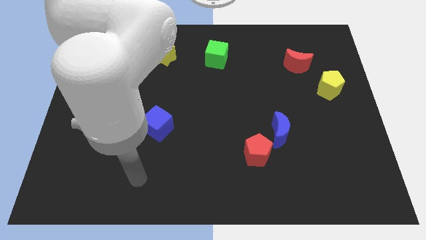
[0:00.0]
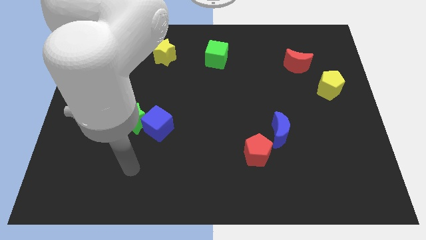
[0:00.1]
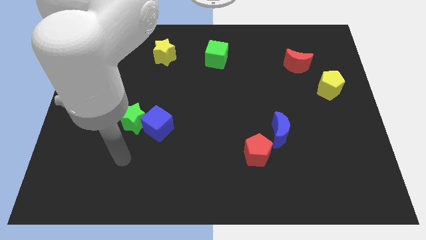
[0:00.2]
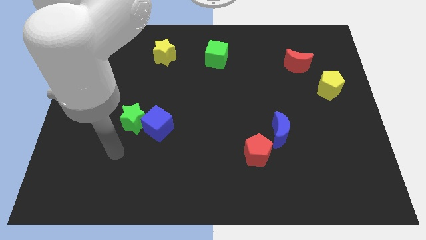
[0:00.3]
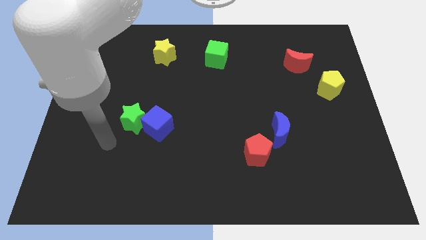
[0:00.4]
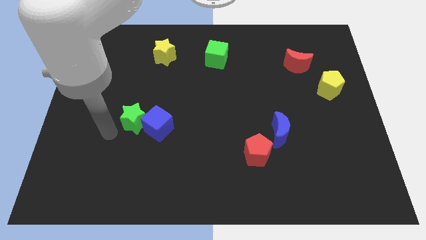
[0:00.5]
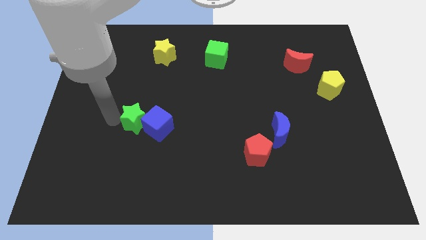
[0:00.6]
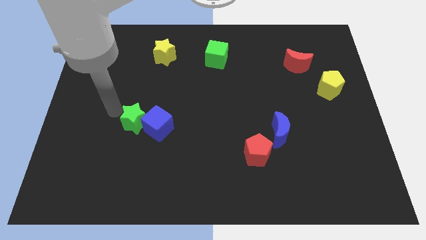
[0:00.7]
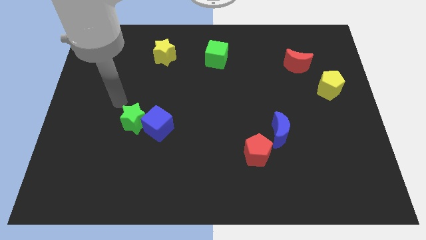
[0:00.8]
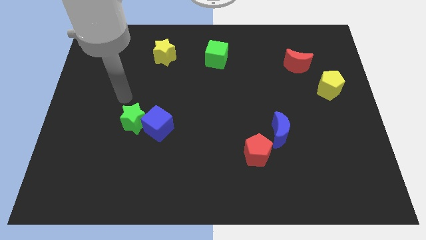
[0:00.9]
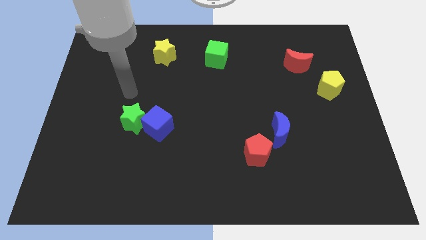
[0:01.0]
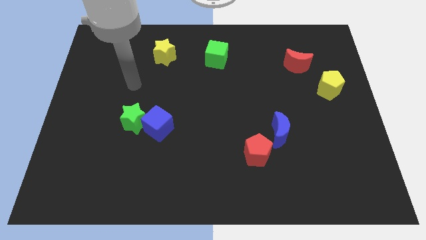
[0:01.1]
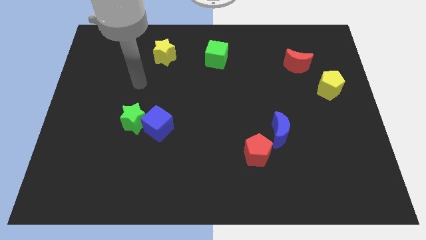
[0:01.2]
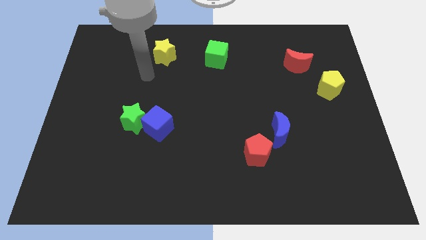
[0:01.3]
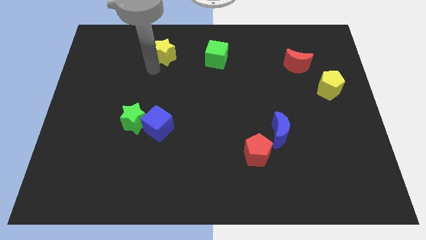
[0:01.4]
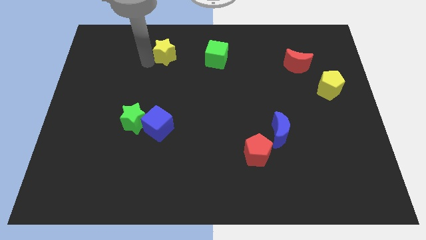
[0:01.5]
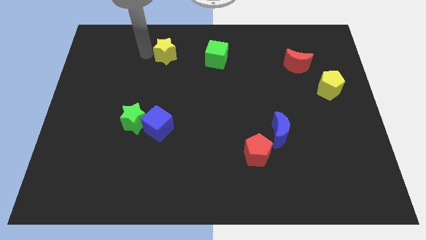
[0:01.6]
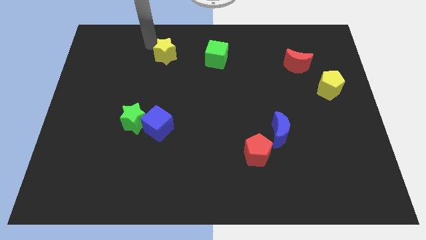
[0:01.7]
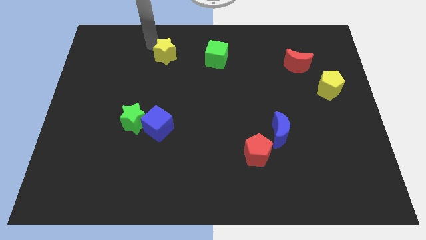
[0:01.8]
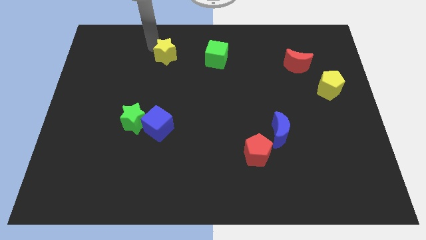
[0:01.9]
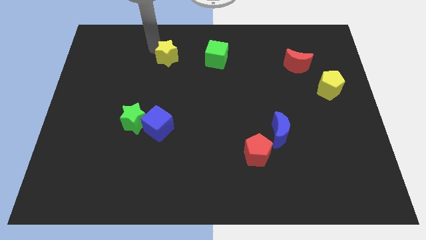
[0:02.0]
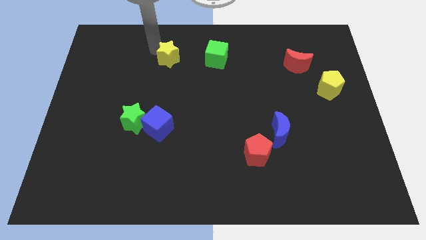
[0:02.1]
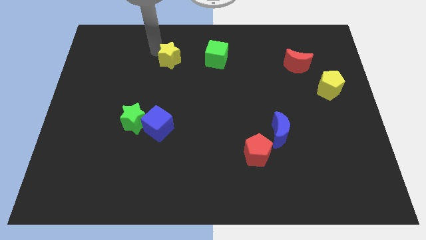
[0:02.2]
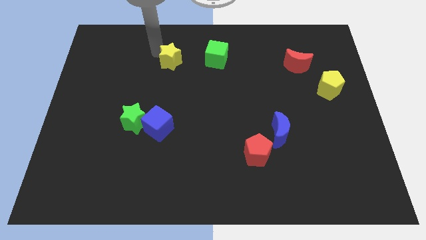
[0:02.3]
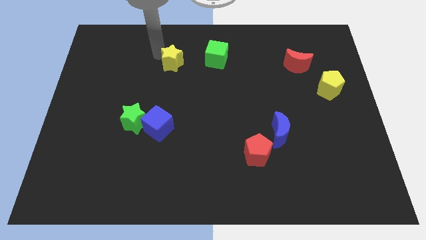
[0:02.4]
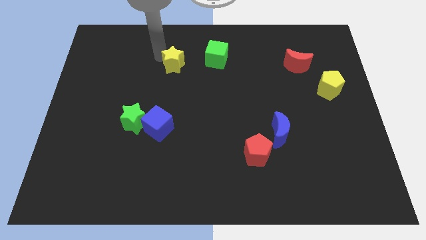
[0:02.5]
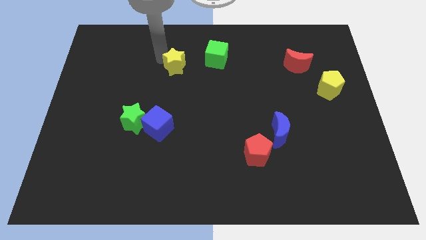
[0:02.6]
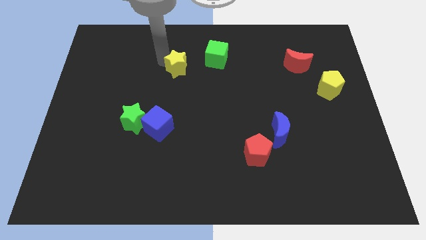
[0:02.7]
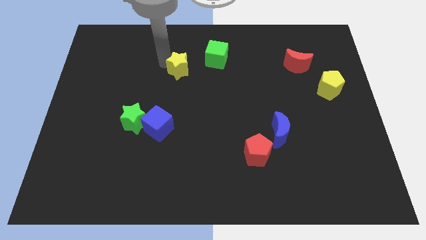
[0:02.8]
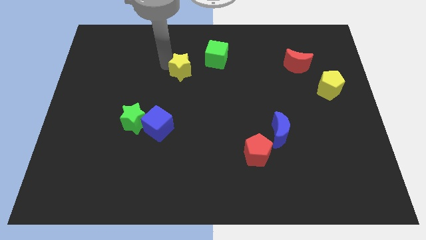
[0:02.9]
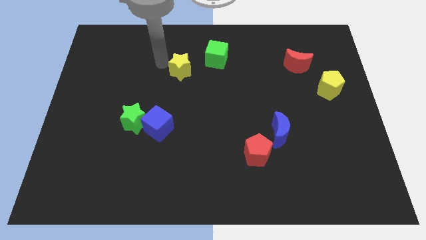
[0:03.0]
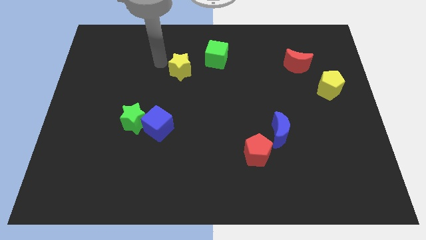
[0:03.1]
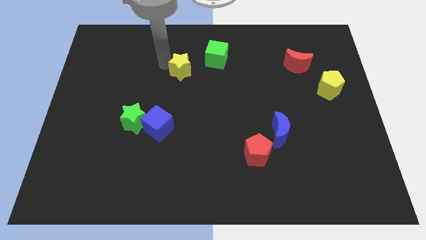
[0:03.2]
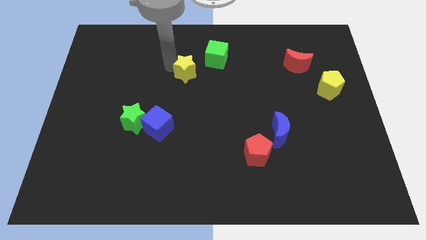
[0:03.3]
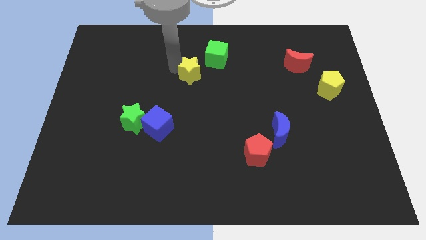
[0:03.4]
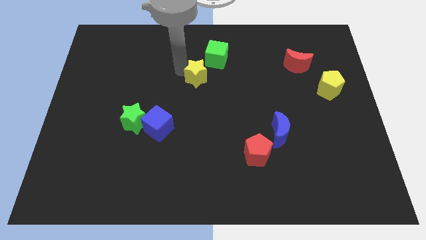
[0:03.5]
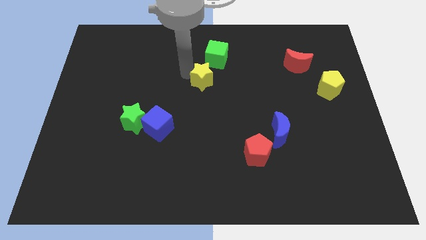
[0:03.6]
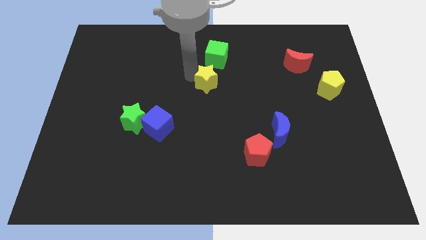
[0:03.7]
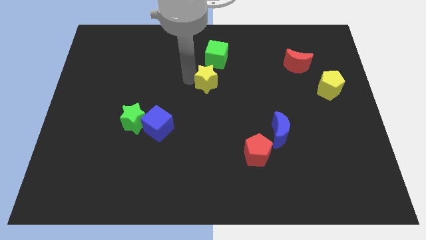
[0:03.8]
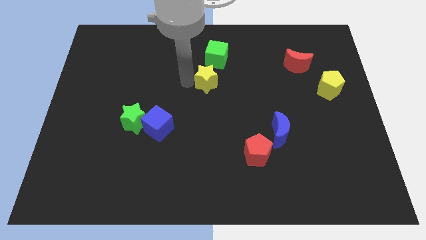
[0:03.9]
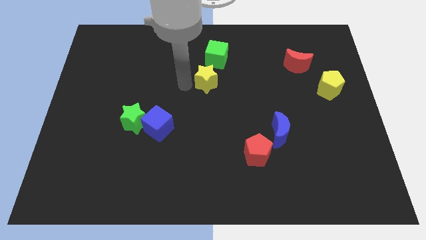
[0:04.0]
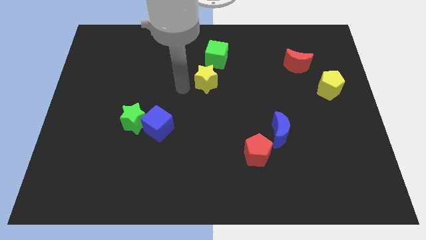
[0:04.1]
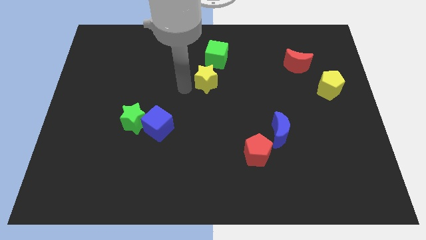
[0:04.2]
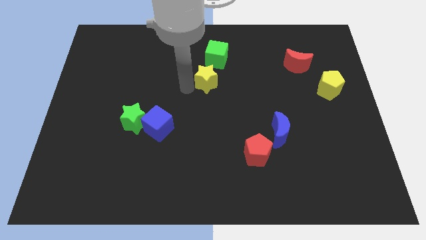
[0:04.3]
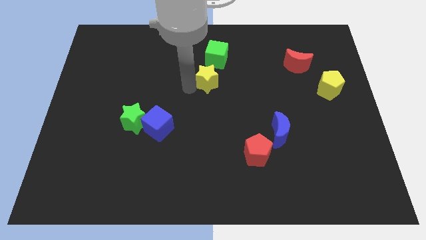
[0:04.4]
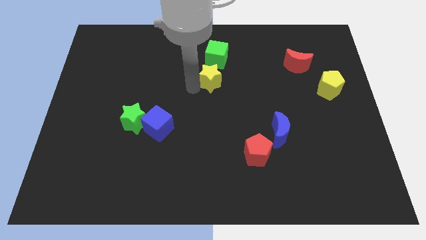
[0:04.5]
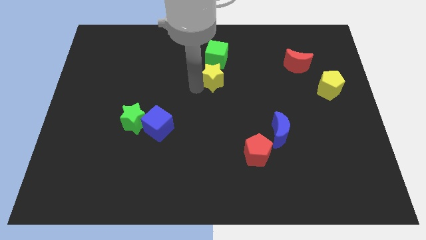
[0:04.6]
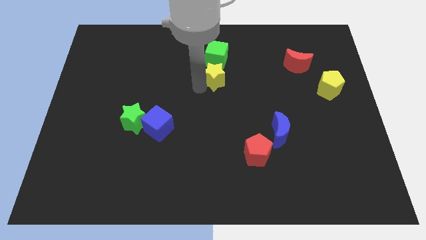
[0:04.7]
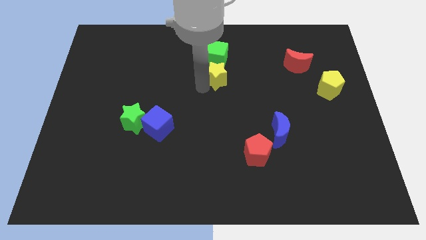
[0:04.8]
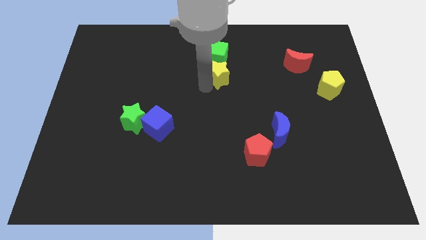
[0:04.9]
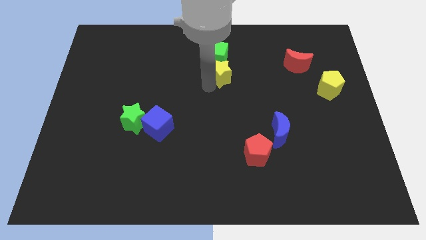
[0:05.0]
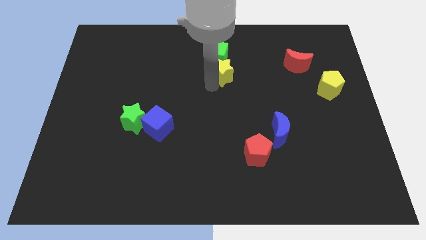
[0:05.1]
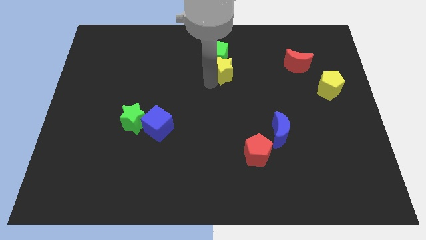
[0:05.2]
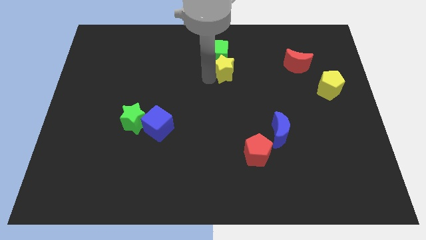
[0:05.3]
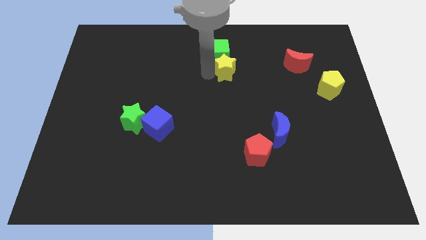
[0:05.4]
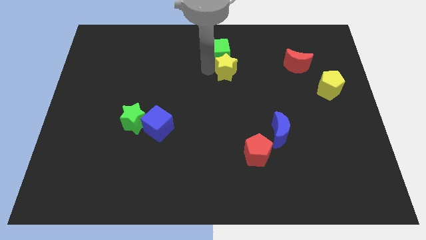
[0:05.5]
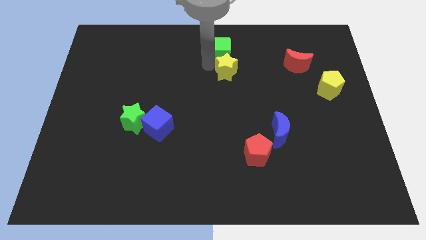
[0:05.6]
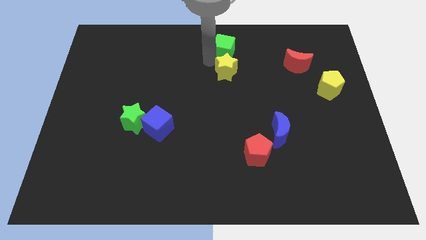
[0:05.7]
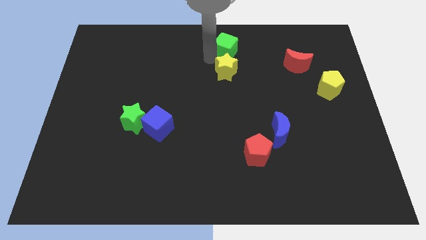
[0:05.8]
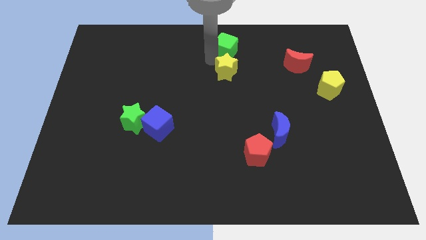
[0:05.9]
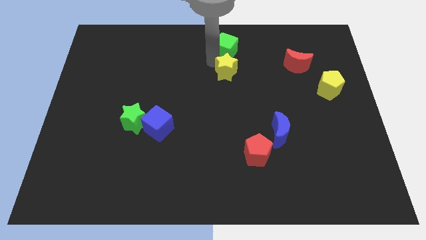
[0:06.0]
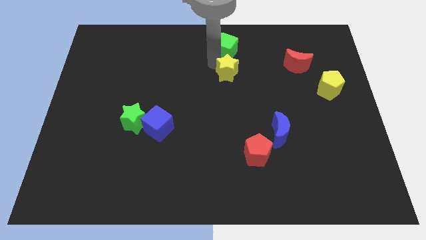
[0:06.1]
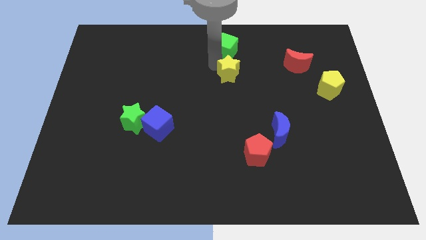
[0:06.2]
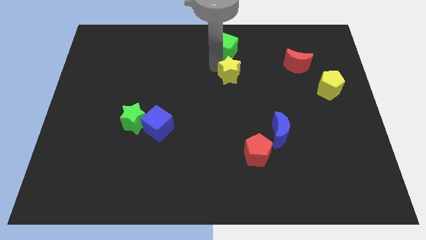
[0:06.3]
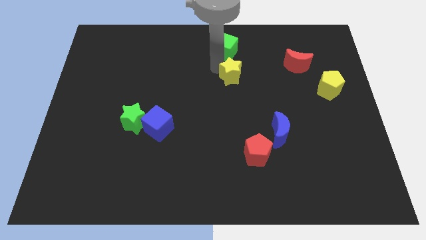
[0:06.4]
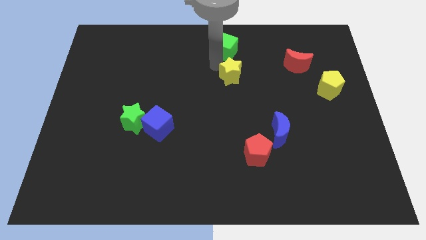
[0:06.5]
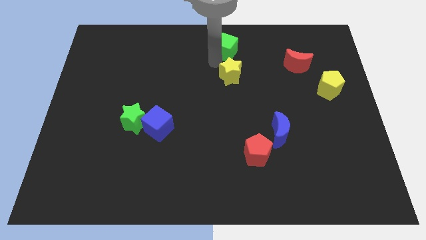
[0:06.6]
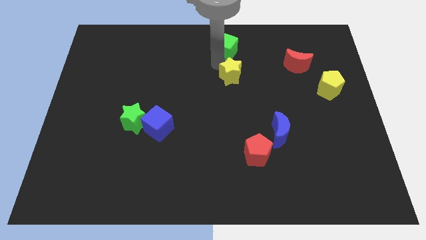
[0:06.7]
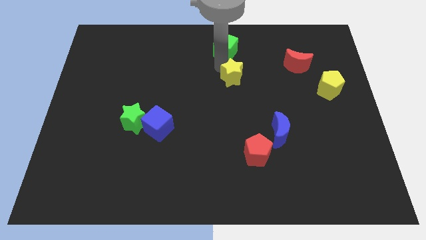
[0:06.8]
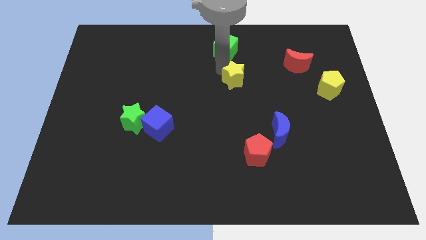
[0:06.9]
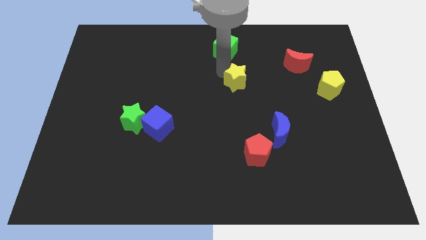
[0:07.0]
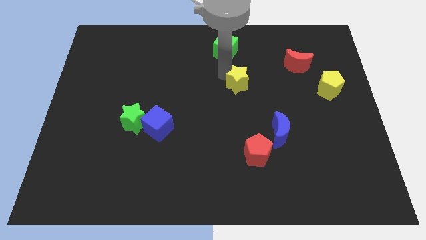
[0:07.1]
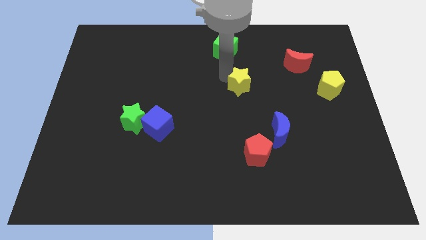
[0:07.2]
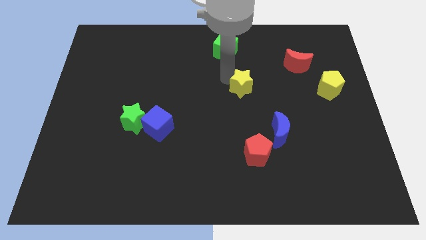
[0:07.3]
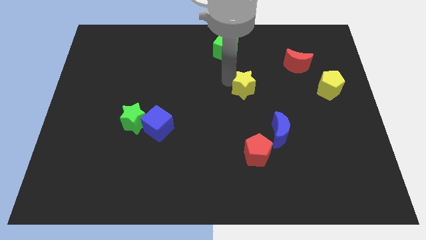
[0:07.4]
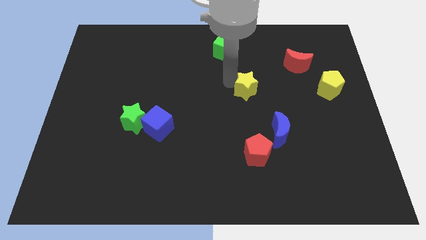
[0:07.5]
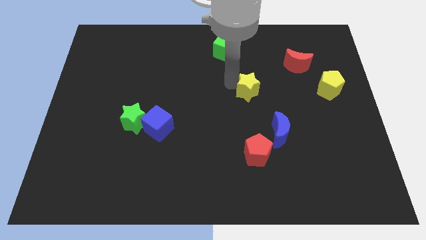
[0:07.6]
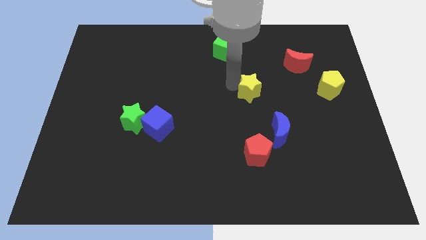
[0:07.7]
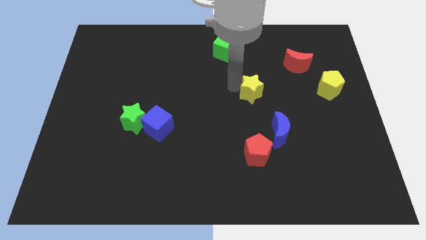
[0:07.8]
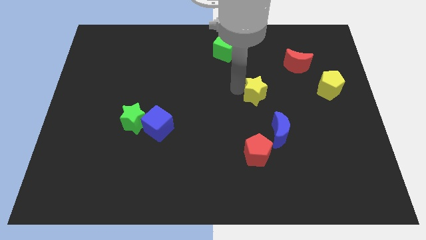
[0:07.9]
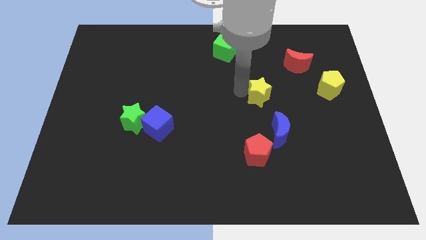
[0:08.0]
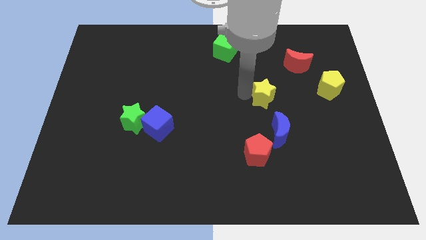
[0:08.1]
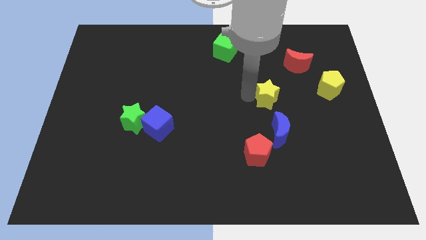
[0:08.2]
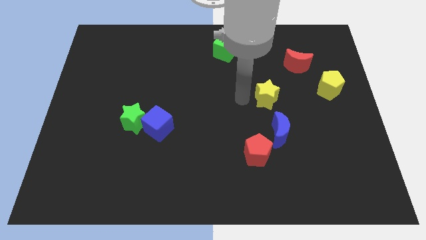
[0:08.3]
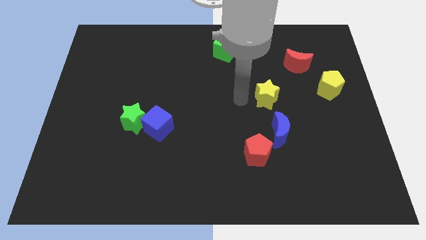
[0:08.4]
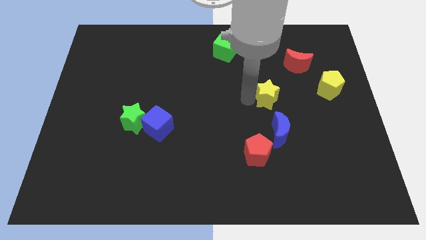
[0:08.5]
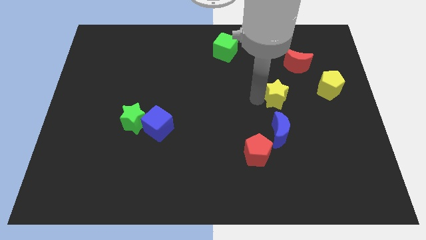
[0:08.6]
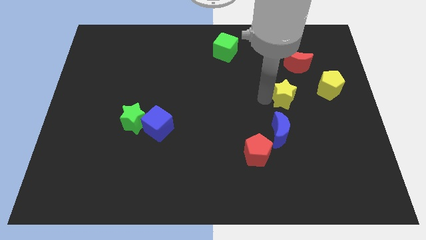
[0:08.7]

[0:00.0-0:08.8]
move the yellow star below the red moon
